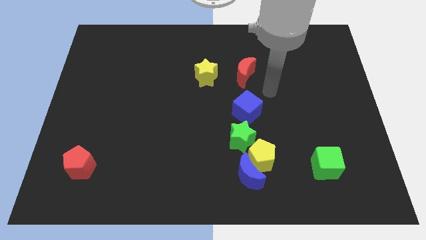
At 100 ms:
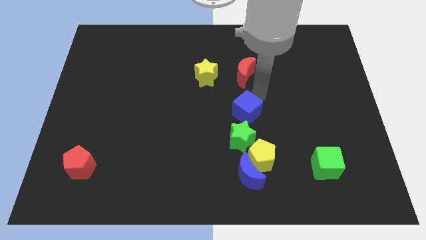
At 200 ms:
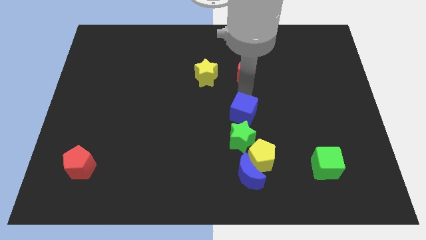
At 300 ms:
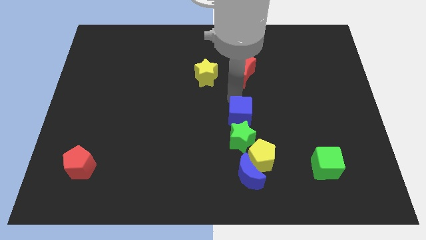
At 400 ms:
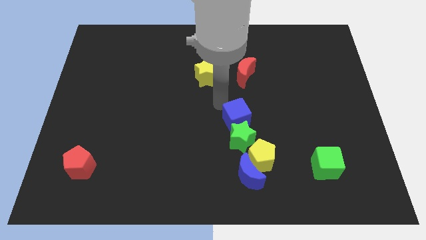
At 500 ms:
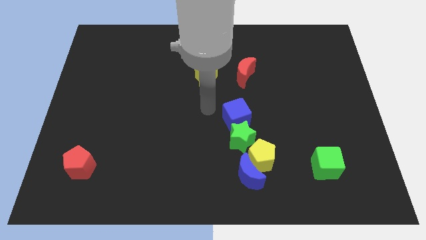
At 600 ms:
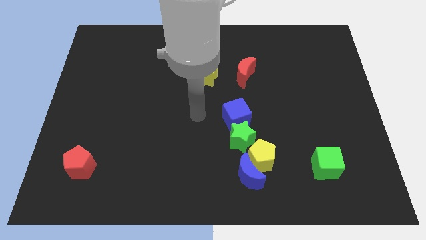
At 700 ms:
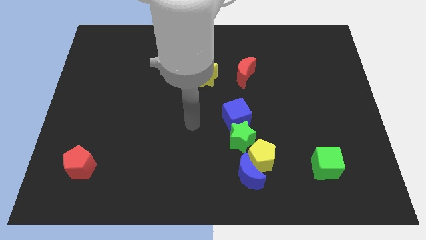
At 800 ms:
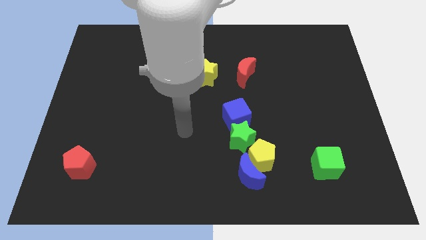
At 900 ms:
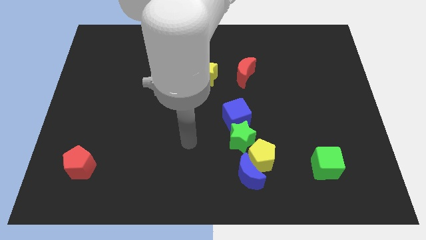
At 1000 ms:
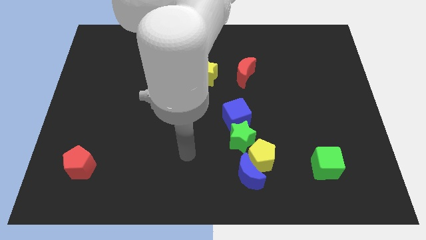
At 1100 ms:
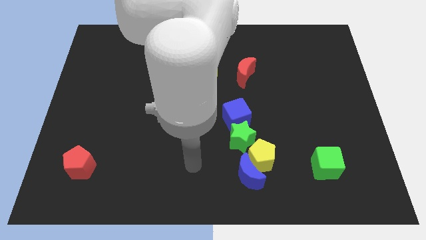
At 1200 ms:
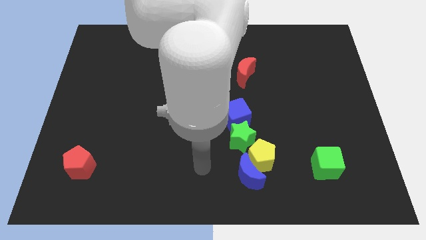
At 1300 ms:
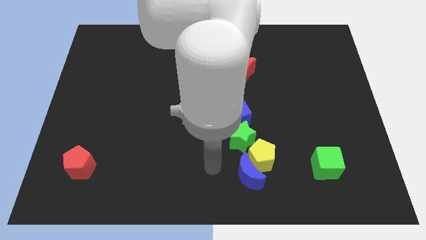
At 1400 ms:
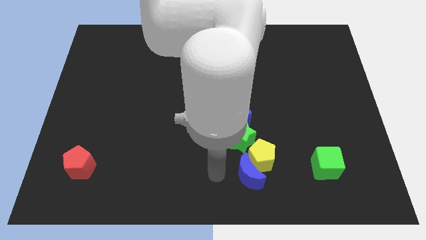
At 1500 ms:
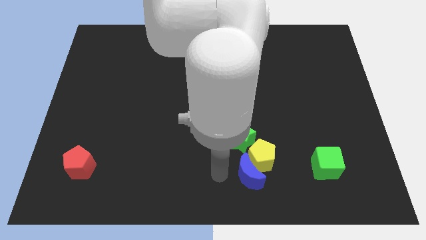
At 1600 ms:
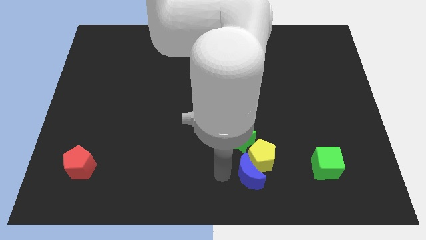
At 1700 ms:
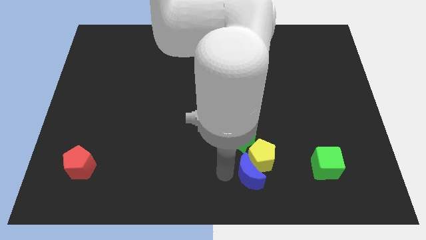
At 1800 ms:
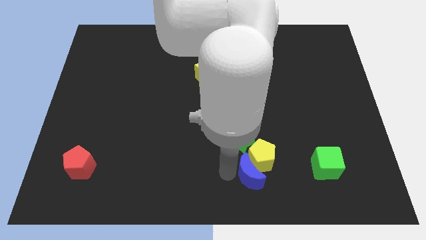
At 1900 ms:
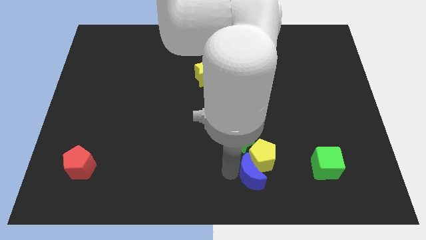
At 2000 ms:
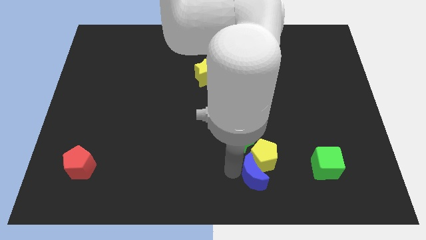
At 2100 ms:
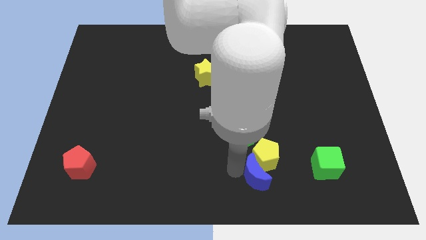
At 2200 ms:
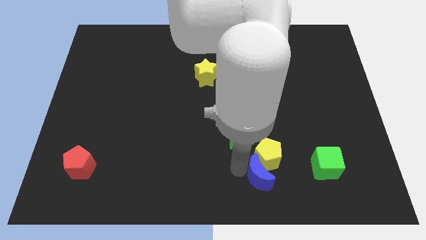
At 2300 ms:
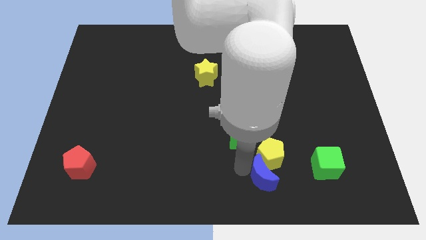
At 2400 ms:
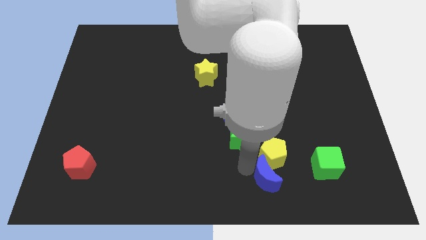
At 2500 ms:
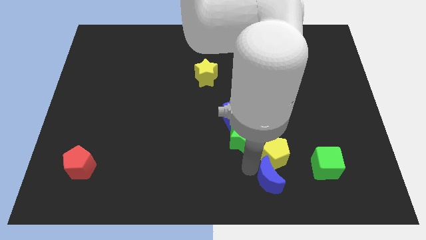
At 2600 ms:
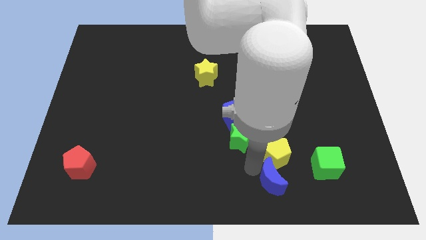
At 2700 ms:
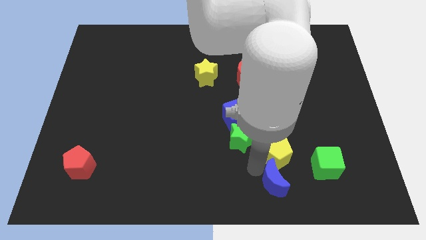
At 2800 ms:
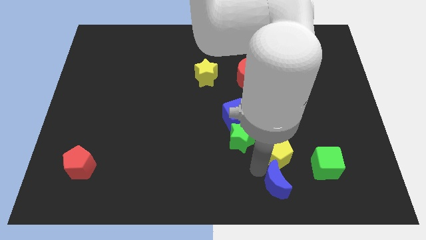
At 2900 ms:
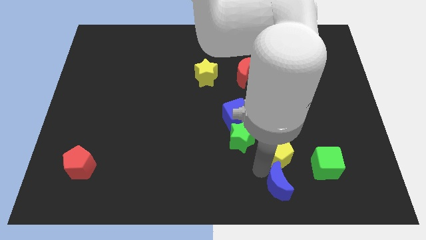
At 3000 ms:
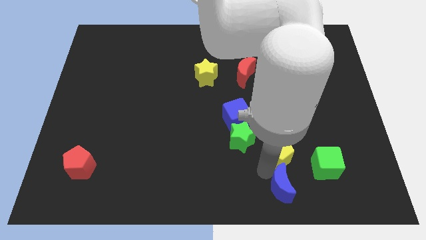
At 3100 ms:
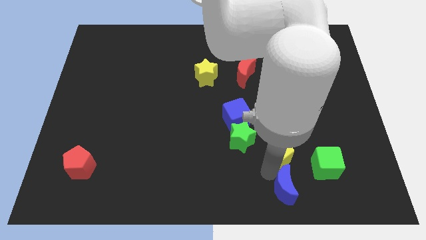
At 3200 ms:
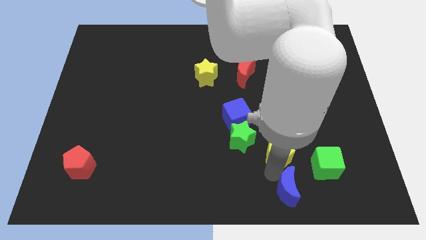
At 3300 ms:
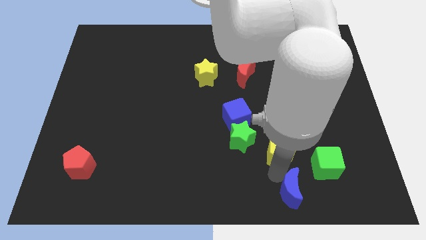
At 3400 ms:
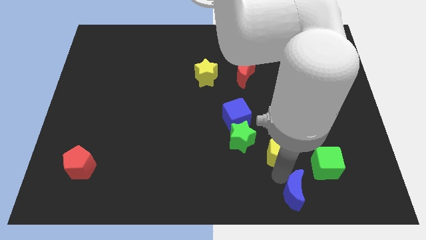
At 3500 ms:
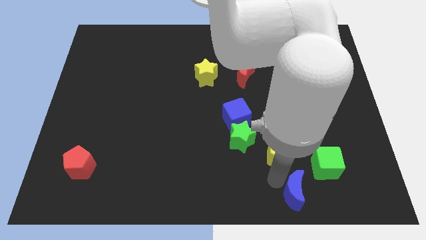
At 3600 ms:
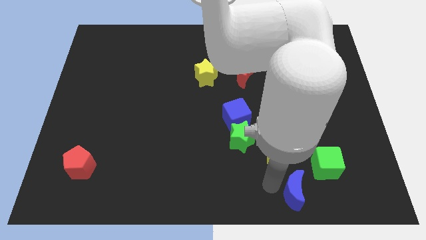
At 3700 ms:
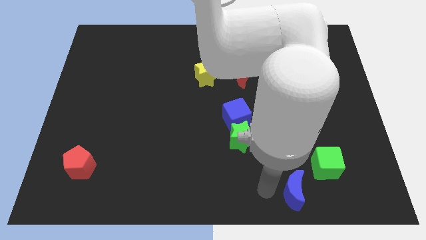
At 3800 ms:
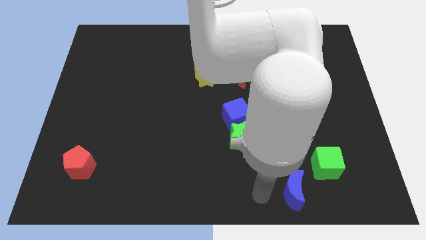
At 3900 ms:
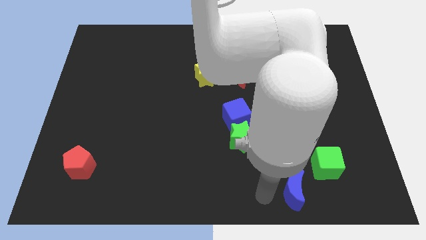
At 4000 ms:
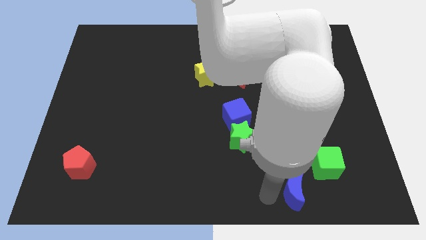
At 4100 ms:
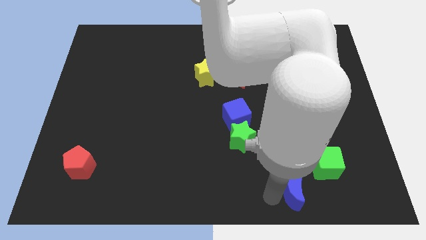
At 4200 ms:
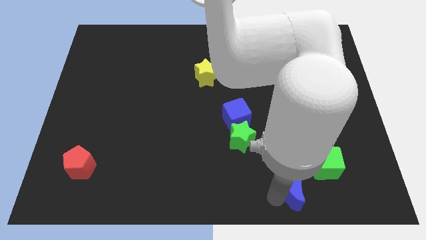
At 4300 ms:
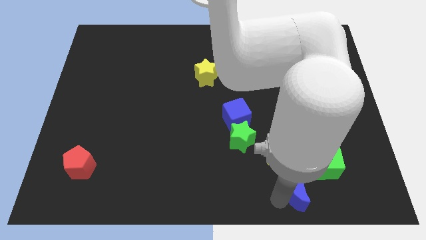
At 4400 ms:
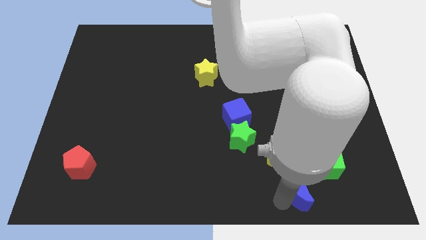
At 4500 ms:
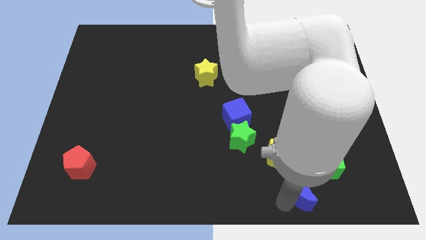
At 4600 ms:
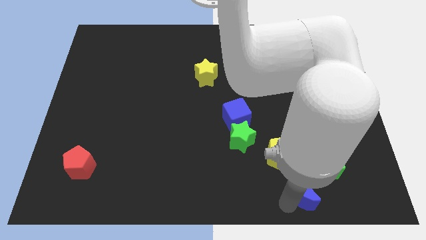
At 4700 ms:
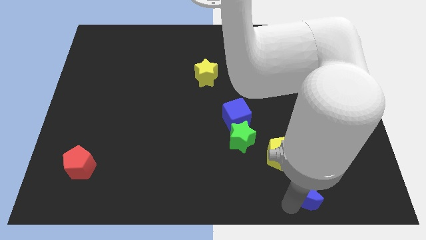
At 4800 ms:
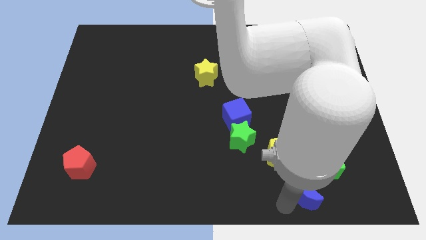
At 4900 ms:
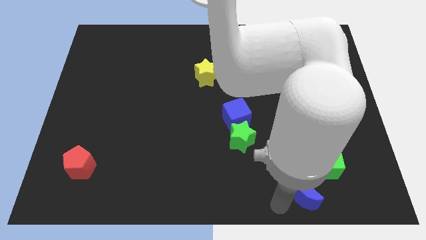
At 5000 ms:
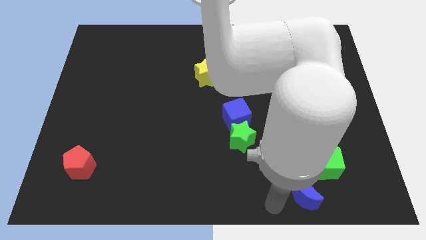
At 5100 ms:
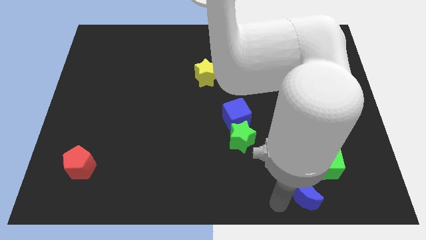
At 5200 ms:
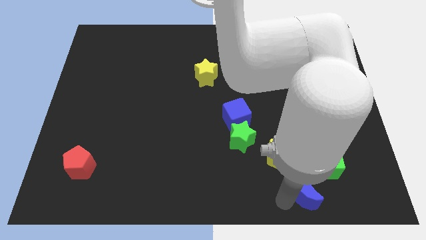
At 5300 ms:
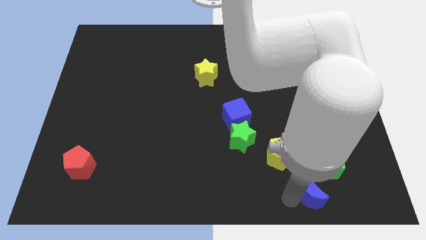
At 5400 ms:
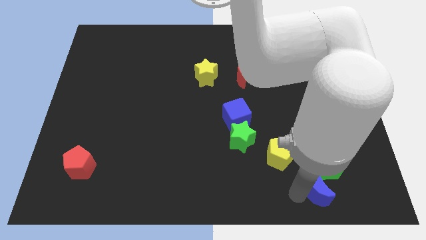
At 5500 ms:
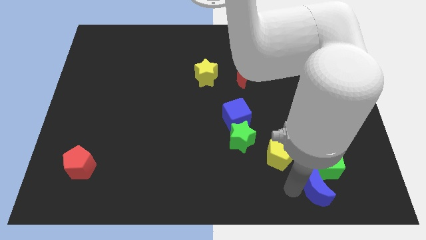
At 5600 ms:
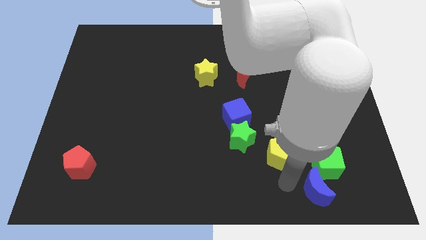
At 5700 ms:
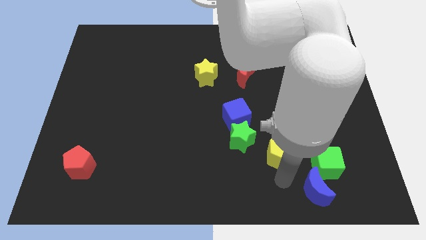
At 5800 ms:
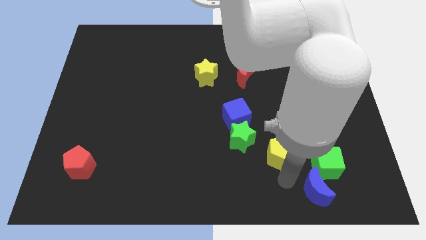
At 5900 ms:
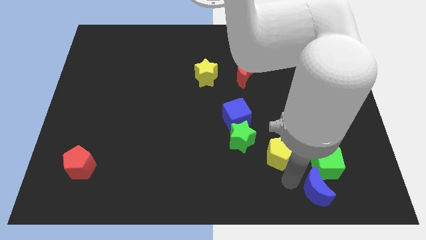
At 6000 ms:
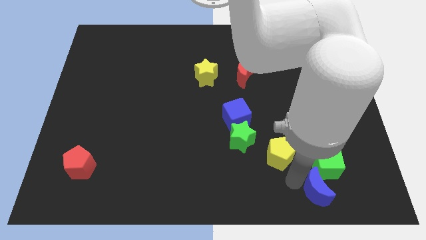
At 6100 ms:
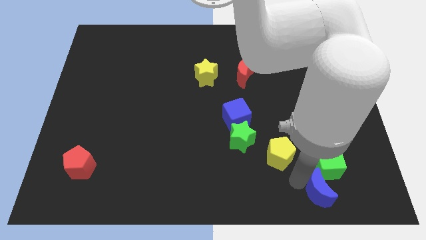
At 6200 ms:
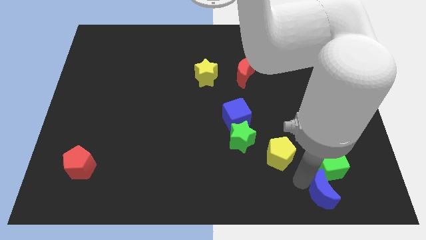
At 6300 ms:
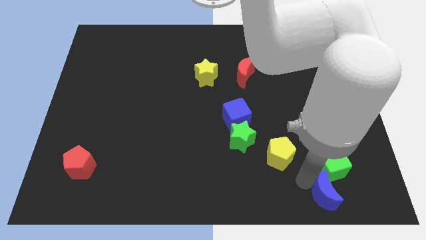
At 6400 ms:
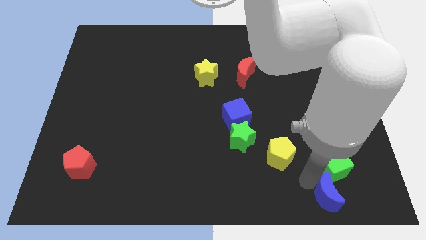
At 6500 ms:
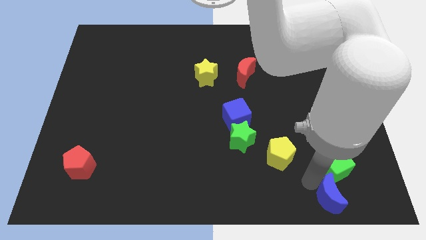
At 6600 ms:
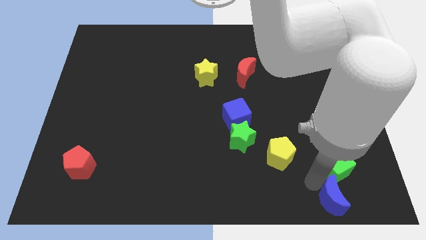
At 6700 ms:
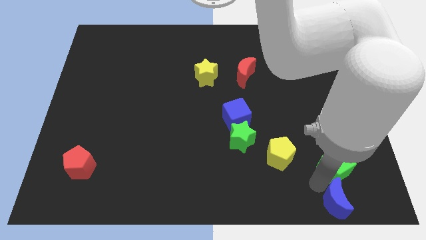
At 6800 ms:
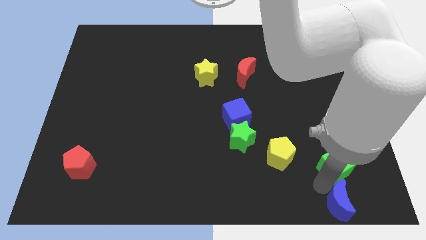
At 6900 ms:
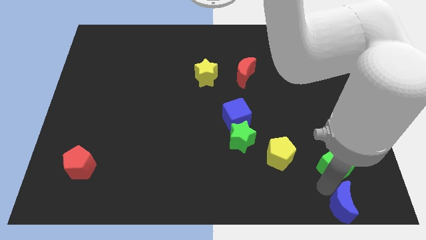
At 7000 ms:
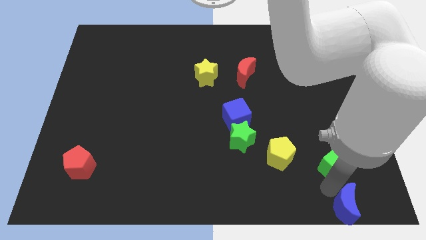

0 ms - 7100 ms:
push the blue moon to the lower right corner
